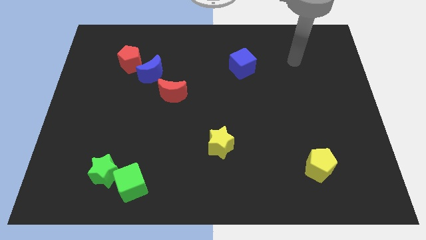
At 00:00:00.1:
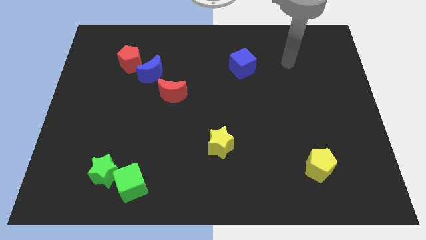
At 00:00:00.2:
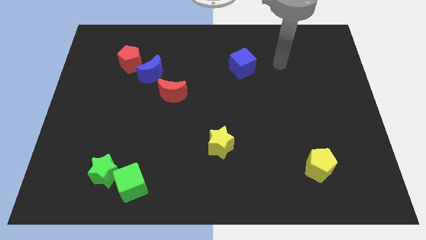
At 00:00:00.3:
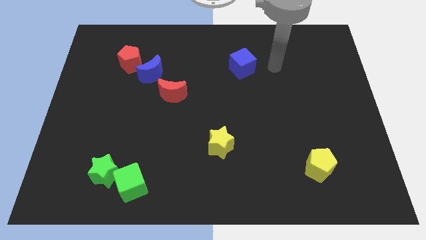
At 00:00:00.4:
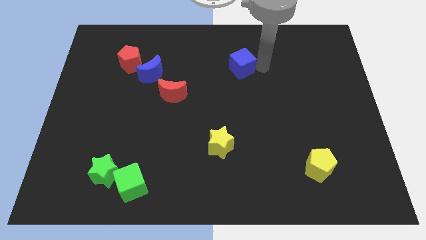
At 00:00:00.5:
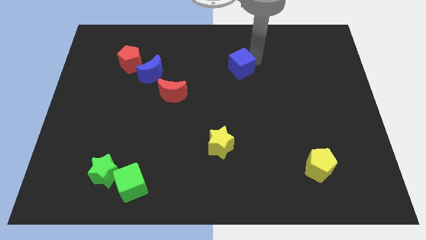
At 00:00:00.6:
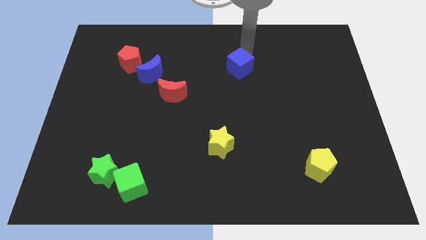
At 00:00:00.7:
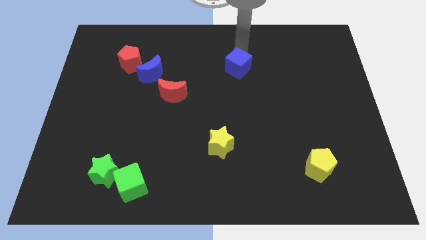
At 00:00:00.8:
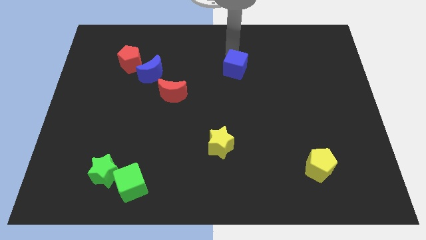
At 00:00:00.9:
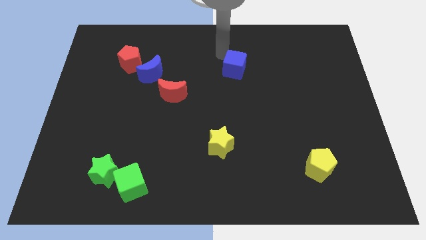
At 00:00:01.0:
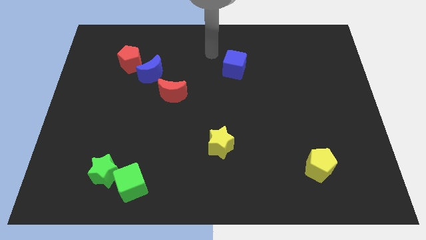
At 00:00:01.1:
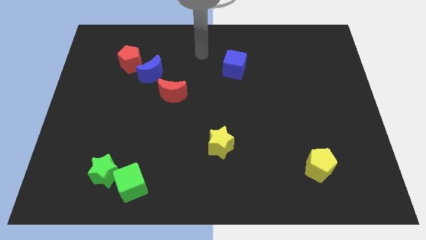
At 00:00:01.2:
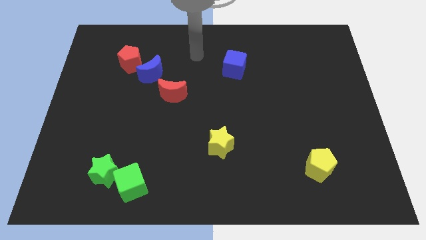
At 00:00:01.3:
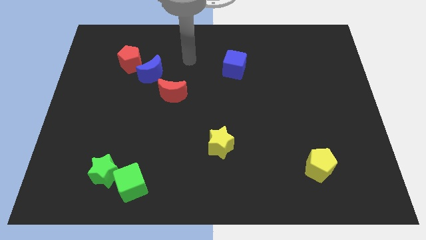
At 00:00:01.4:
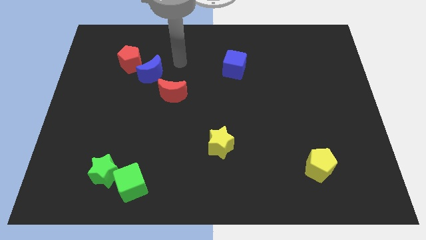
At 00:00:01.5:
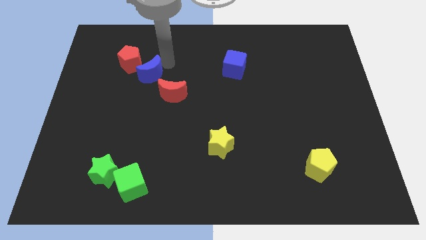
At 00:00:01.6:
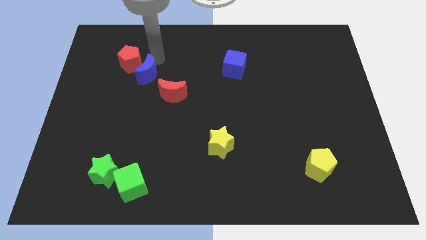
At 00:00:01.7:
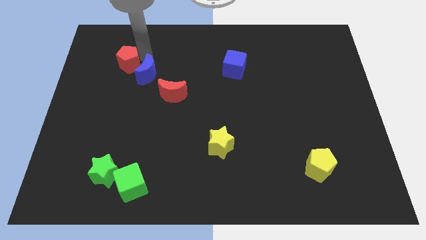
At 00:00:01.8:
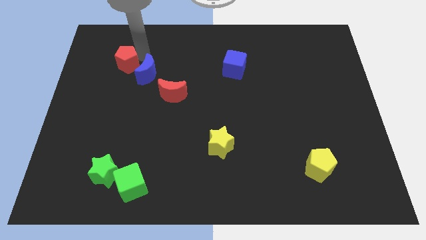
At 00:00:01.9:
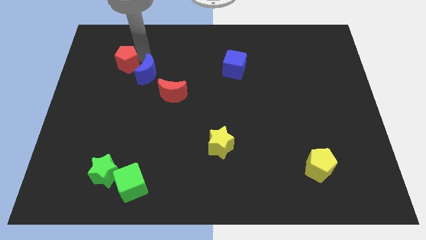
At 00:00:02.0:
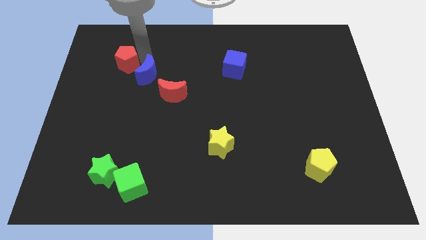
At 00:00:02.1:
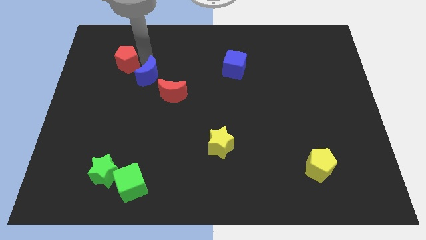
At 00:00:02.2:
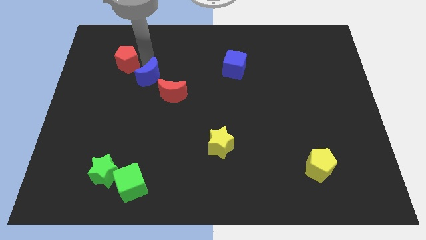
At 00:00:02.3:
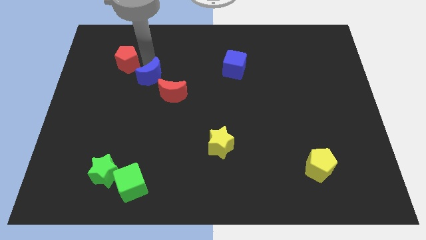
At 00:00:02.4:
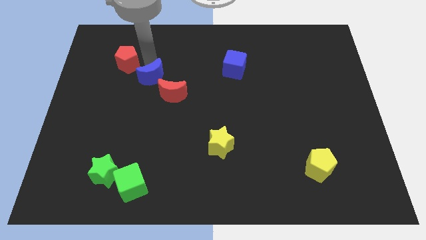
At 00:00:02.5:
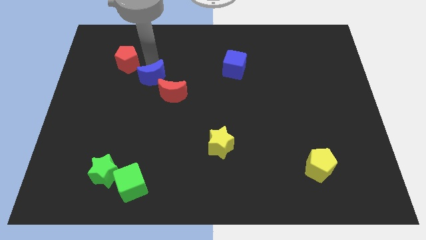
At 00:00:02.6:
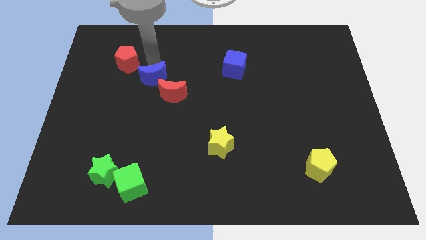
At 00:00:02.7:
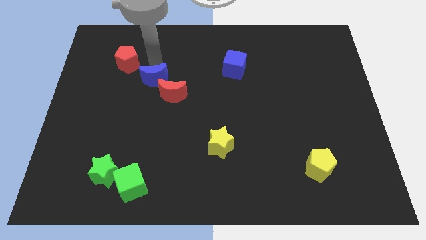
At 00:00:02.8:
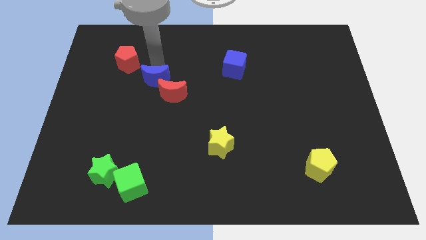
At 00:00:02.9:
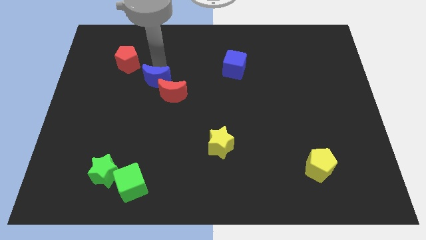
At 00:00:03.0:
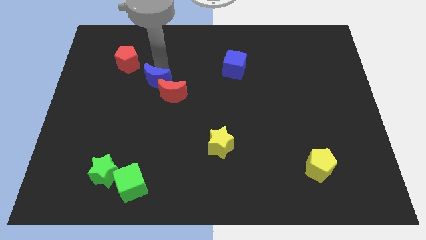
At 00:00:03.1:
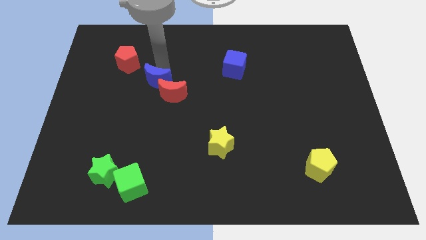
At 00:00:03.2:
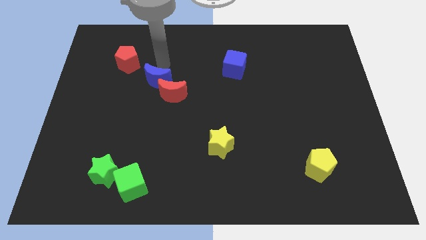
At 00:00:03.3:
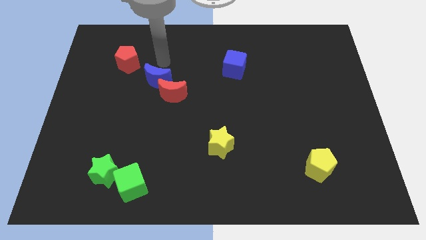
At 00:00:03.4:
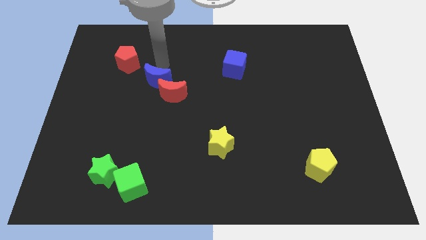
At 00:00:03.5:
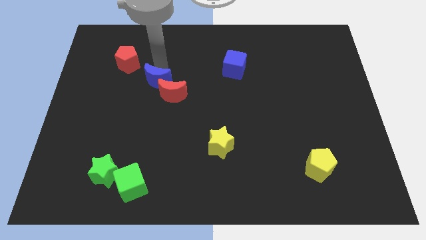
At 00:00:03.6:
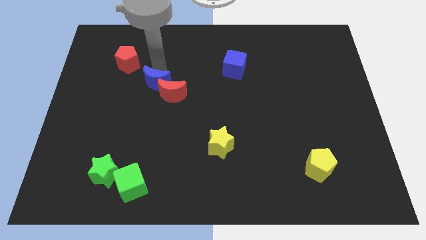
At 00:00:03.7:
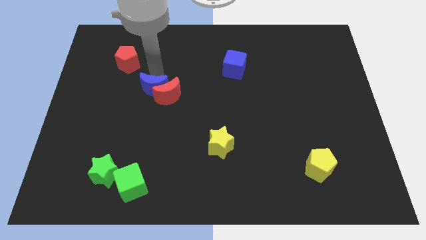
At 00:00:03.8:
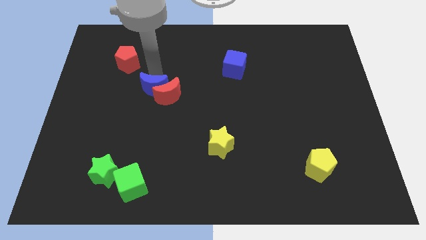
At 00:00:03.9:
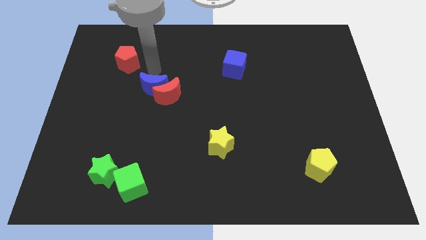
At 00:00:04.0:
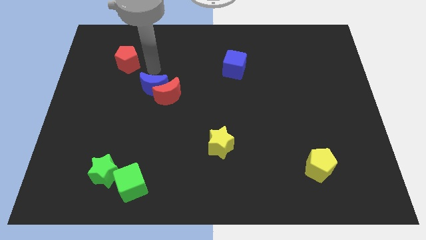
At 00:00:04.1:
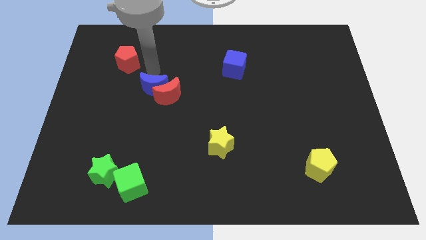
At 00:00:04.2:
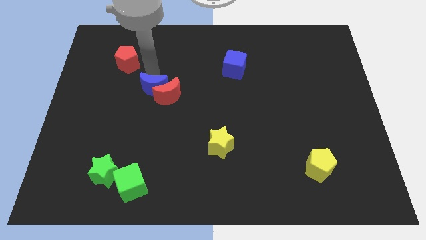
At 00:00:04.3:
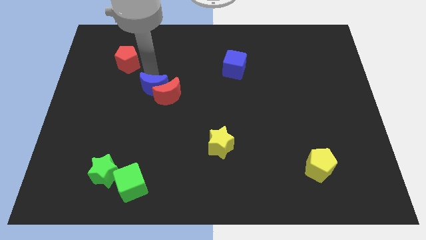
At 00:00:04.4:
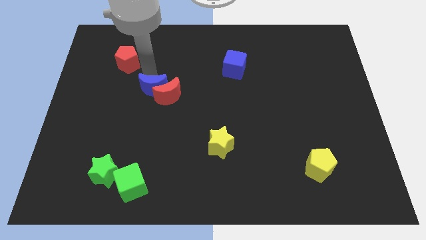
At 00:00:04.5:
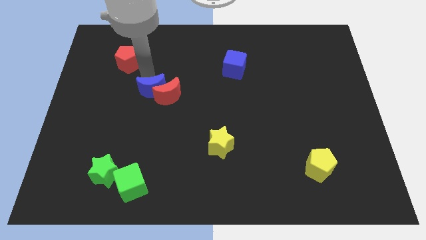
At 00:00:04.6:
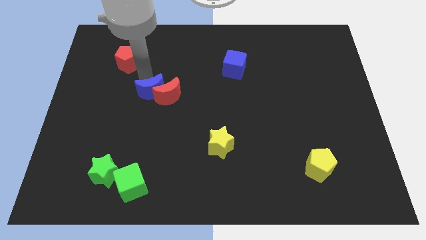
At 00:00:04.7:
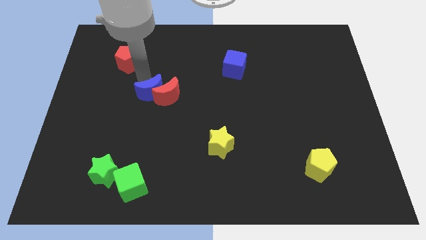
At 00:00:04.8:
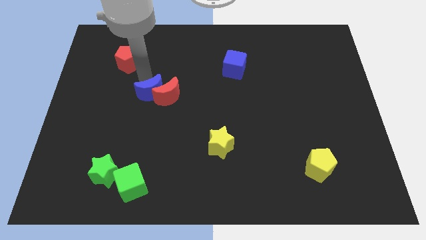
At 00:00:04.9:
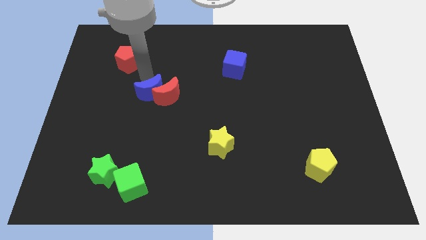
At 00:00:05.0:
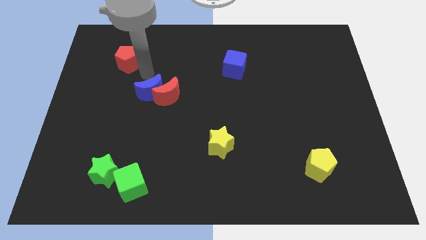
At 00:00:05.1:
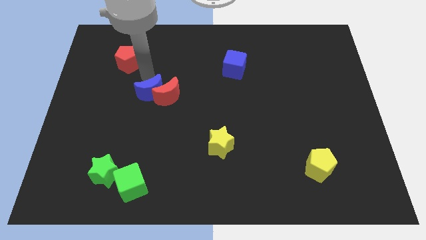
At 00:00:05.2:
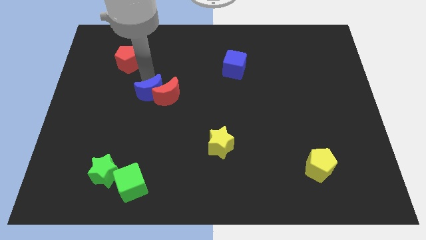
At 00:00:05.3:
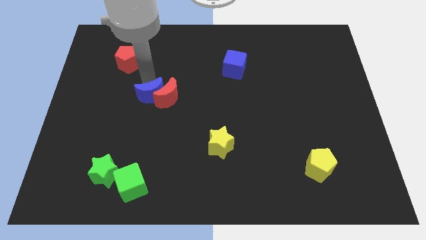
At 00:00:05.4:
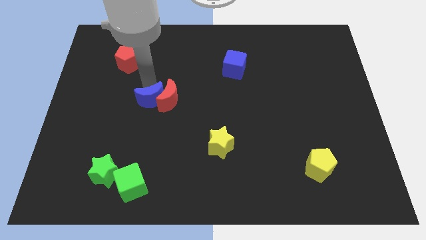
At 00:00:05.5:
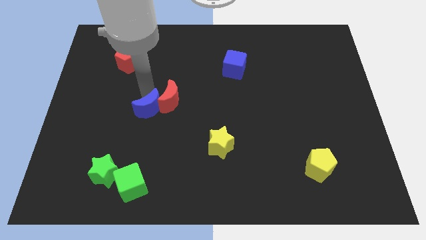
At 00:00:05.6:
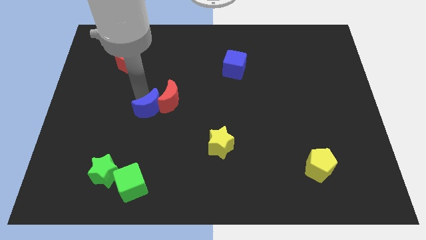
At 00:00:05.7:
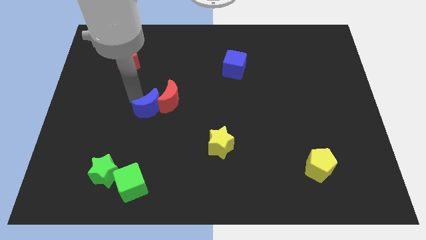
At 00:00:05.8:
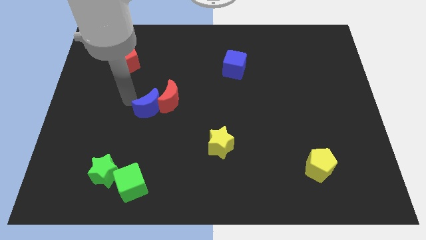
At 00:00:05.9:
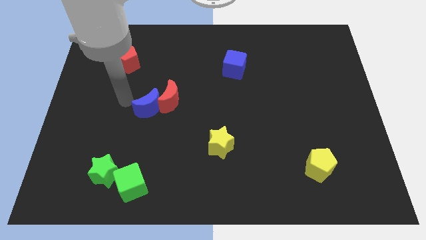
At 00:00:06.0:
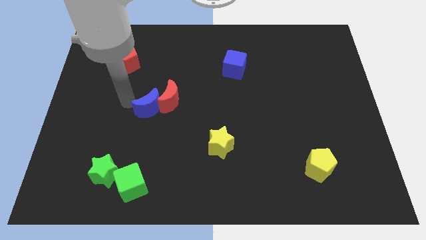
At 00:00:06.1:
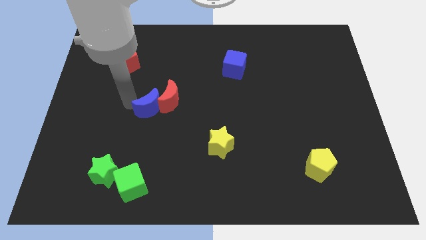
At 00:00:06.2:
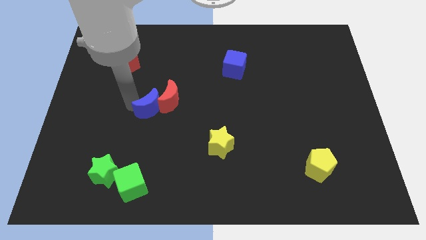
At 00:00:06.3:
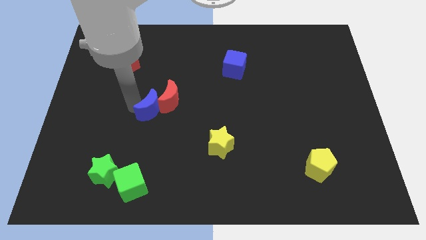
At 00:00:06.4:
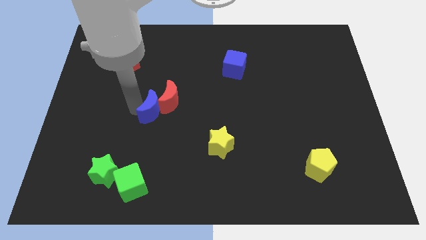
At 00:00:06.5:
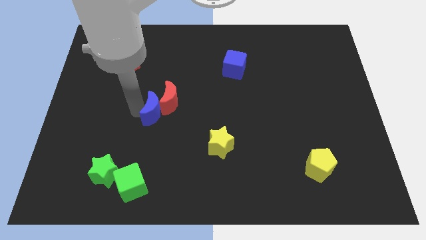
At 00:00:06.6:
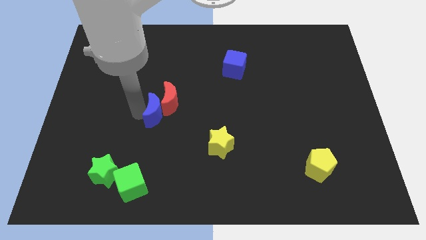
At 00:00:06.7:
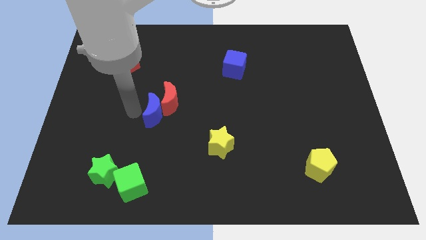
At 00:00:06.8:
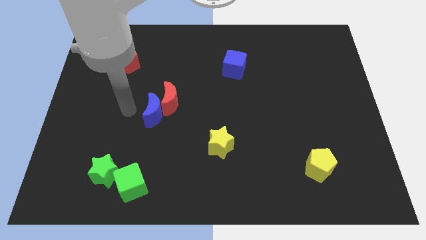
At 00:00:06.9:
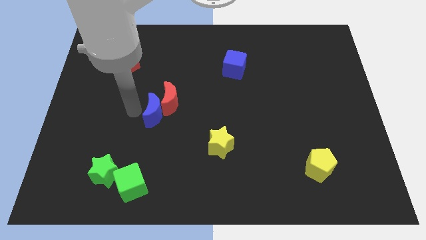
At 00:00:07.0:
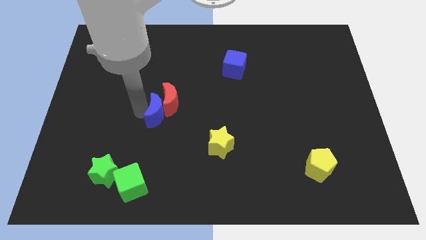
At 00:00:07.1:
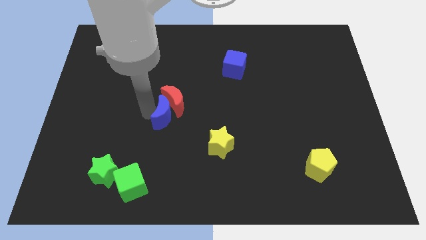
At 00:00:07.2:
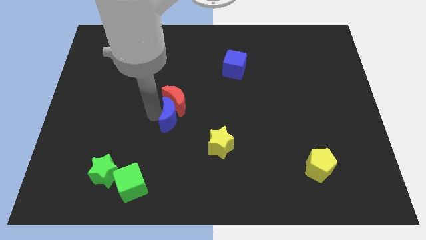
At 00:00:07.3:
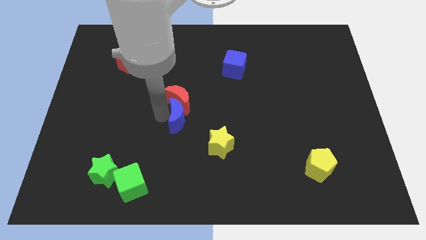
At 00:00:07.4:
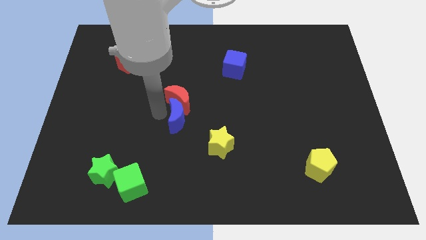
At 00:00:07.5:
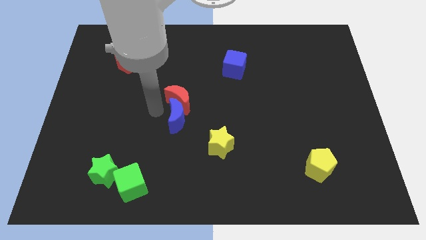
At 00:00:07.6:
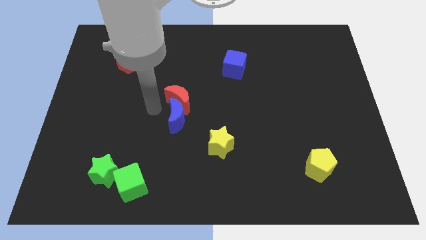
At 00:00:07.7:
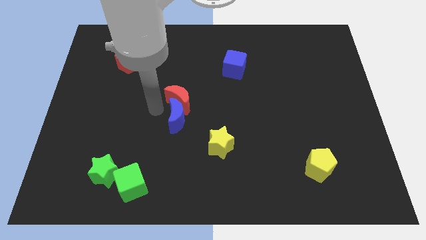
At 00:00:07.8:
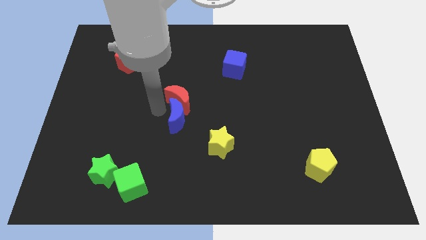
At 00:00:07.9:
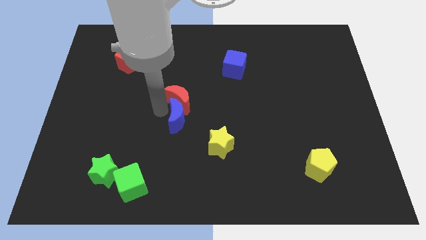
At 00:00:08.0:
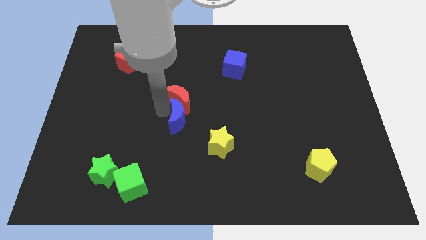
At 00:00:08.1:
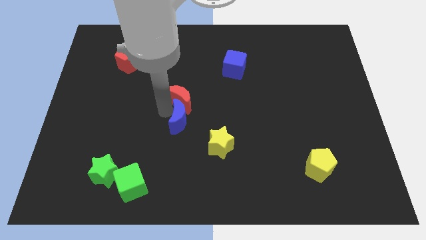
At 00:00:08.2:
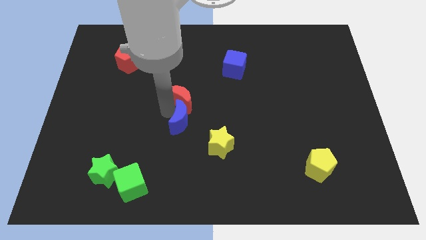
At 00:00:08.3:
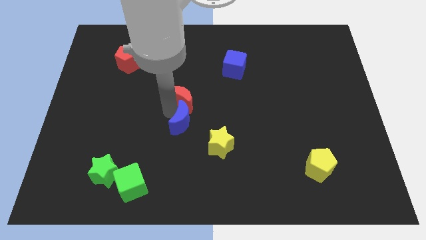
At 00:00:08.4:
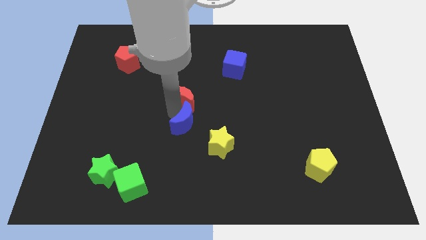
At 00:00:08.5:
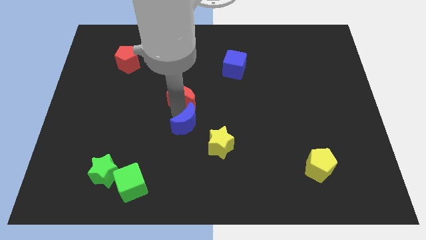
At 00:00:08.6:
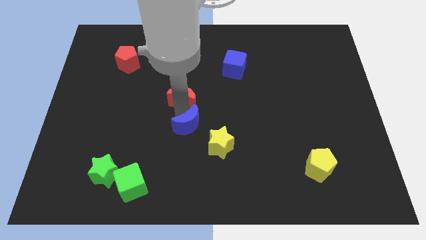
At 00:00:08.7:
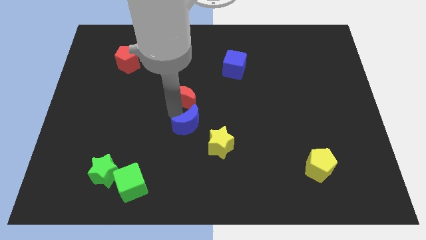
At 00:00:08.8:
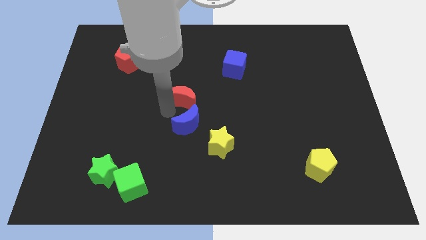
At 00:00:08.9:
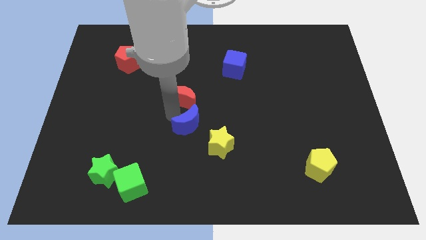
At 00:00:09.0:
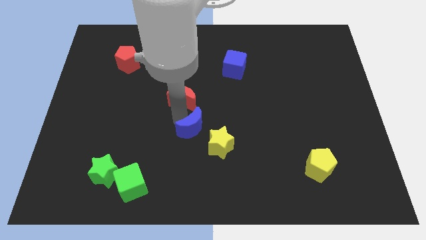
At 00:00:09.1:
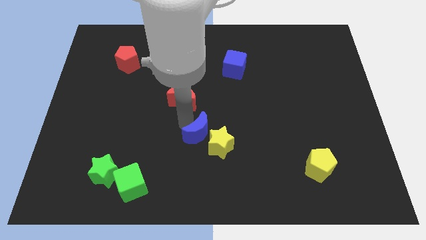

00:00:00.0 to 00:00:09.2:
slide the blue moon close to the yellow star
